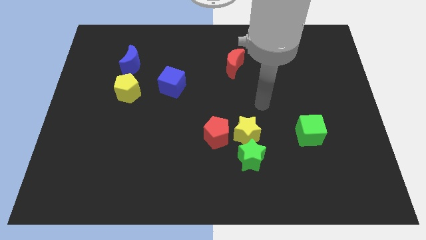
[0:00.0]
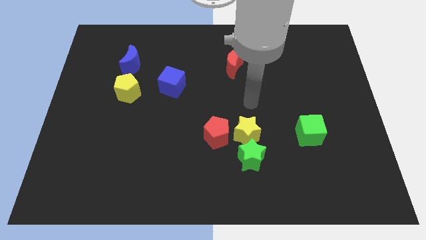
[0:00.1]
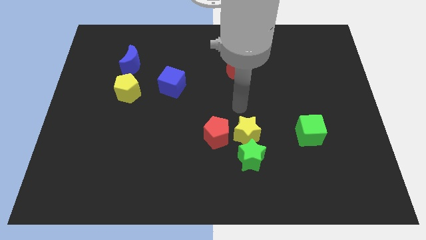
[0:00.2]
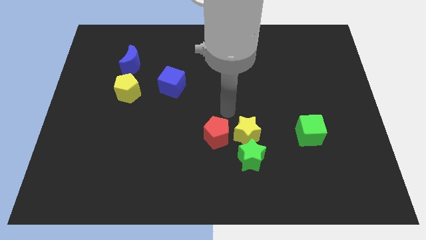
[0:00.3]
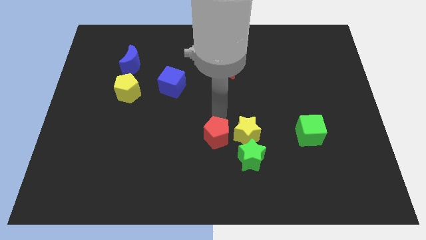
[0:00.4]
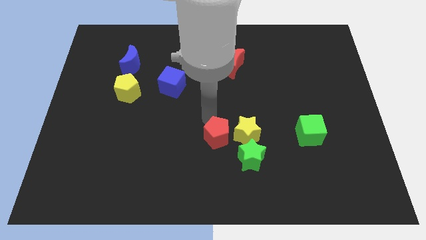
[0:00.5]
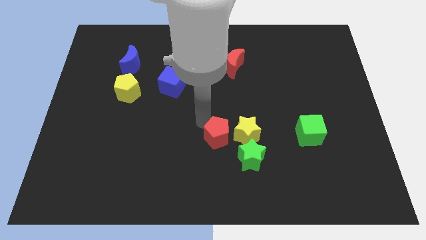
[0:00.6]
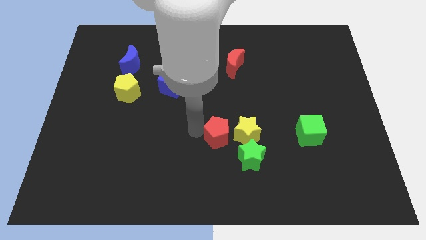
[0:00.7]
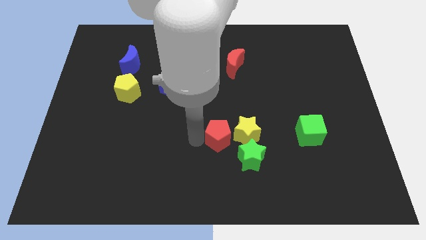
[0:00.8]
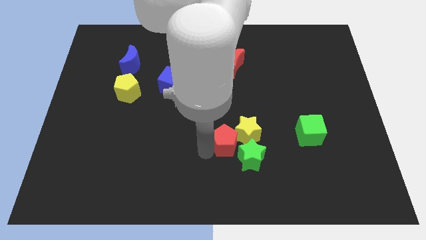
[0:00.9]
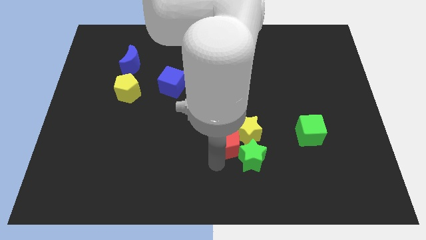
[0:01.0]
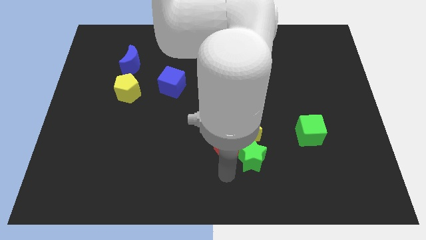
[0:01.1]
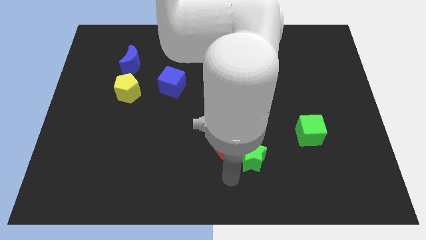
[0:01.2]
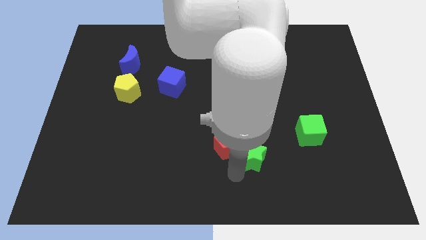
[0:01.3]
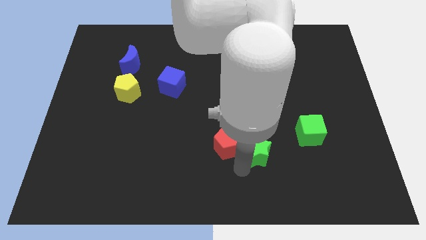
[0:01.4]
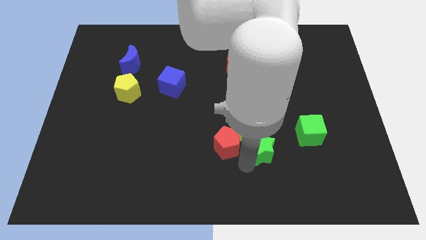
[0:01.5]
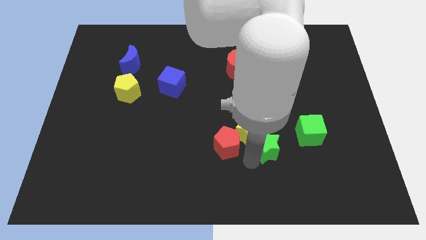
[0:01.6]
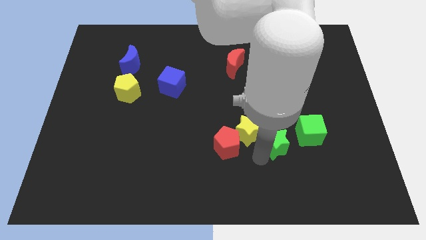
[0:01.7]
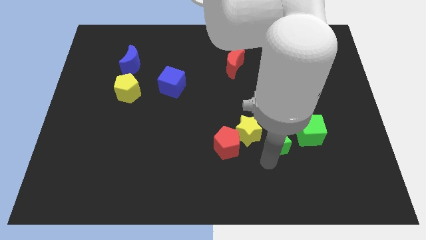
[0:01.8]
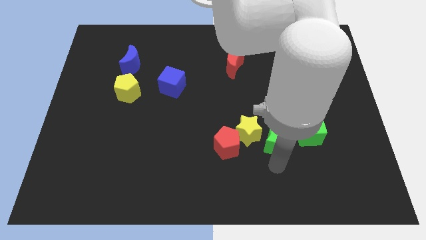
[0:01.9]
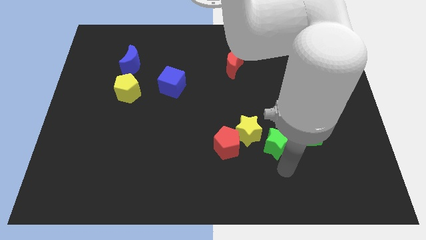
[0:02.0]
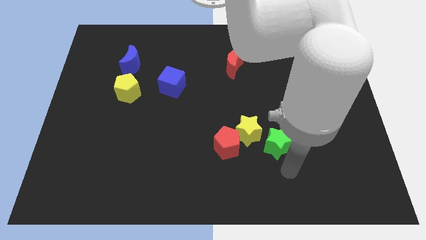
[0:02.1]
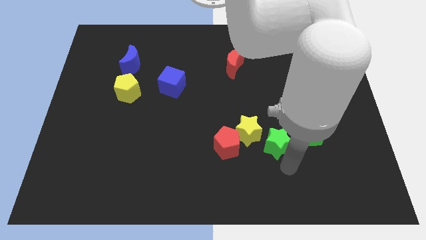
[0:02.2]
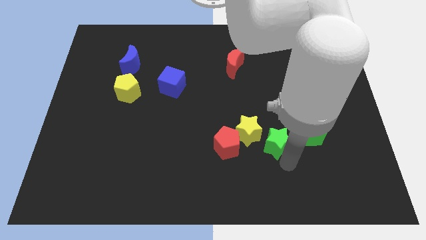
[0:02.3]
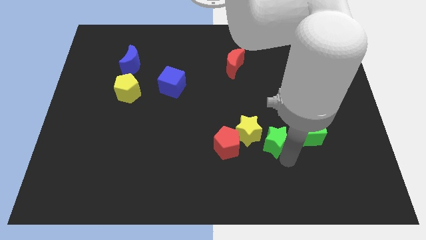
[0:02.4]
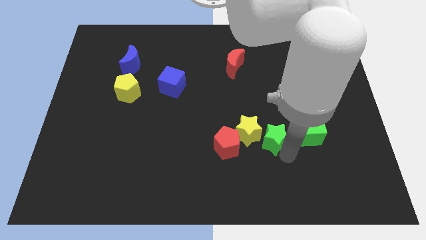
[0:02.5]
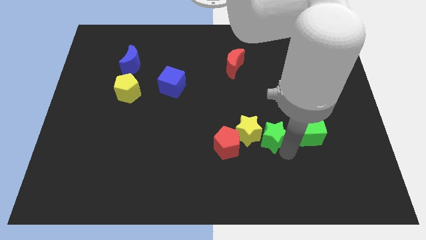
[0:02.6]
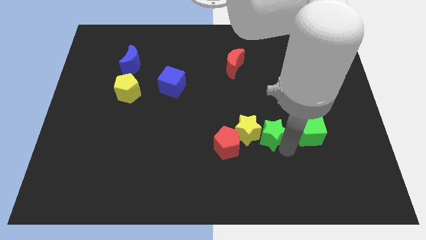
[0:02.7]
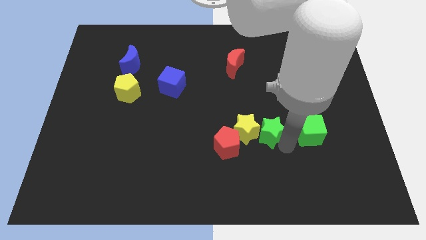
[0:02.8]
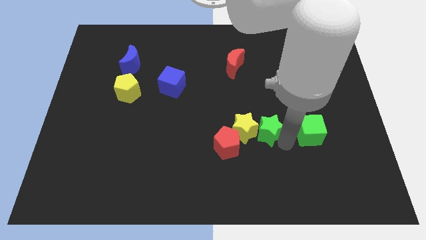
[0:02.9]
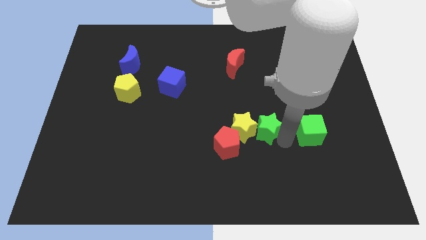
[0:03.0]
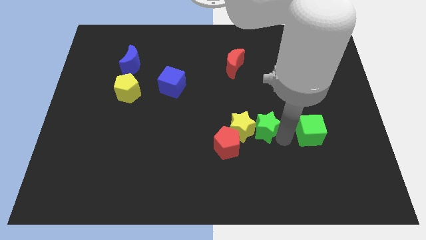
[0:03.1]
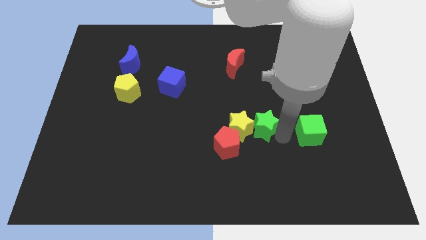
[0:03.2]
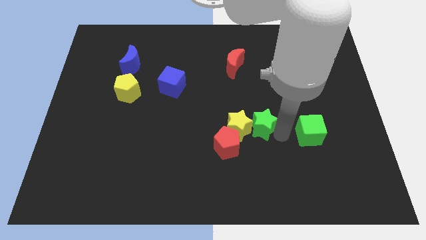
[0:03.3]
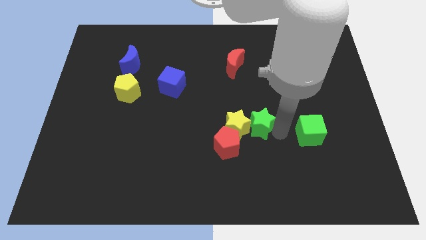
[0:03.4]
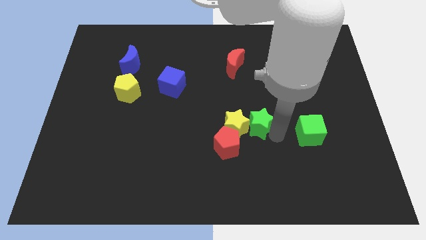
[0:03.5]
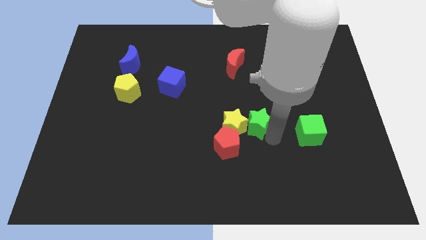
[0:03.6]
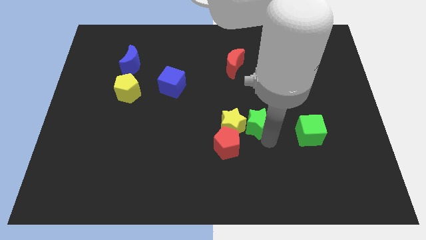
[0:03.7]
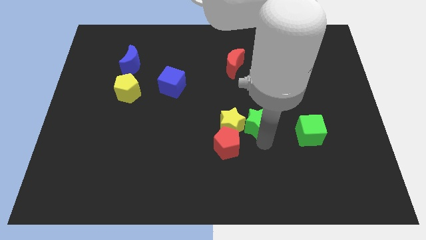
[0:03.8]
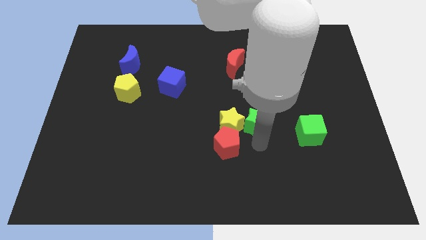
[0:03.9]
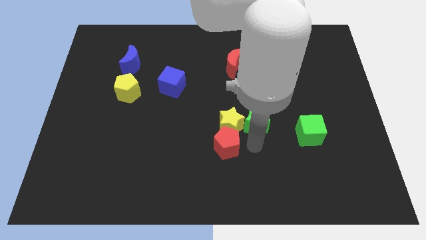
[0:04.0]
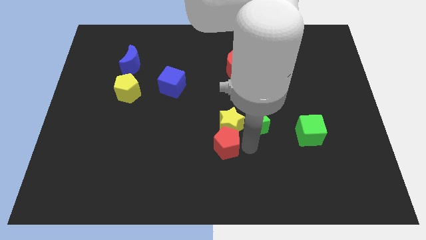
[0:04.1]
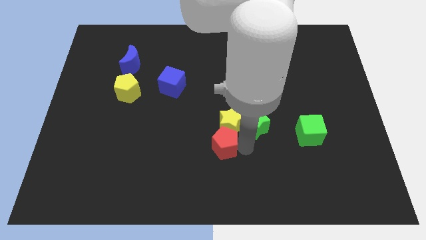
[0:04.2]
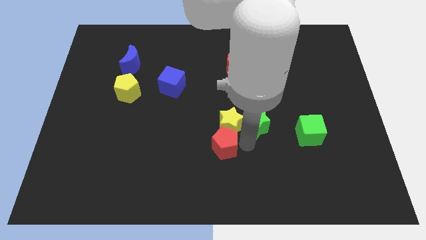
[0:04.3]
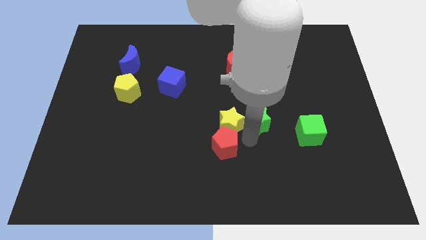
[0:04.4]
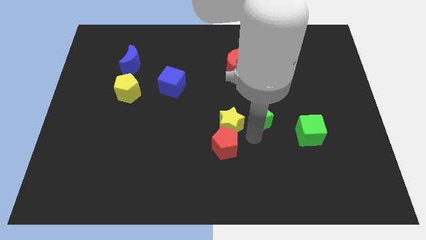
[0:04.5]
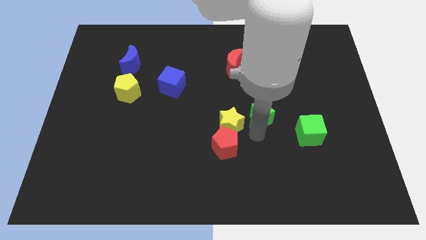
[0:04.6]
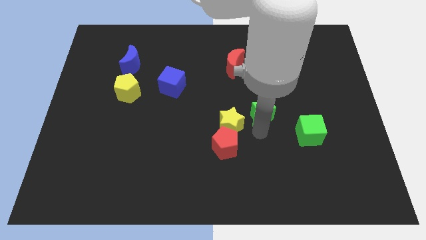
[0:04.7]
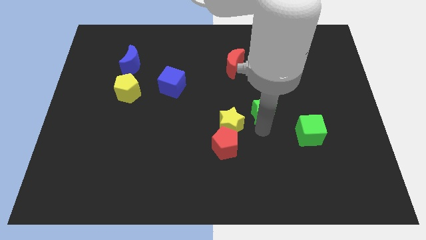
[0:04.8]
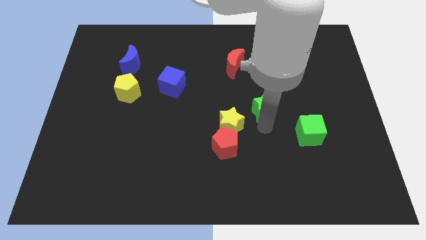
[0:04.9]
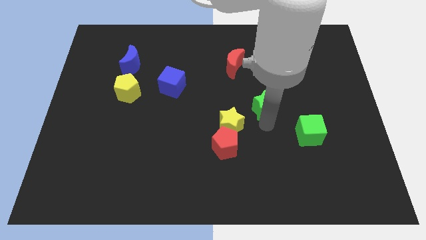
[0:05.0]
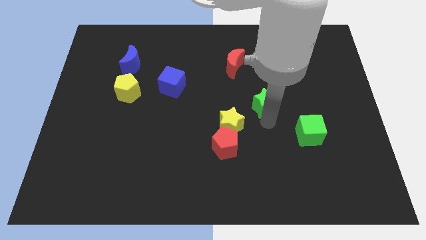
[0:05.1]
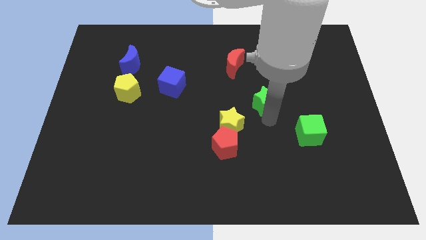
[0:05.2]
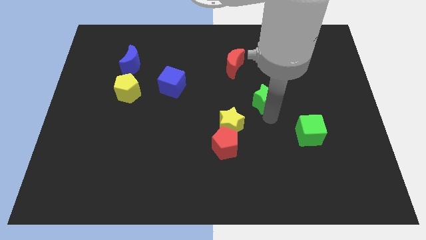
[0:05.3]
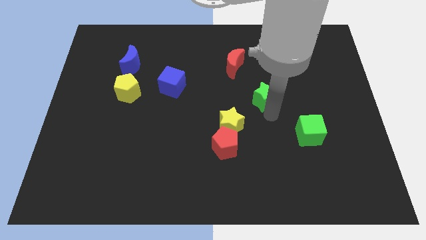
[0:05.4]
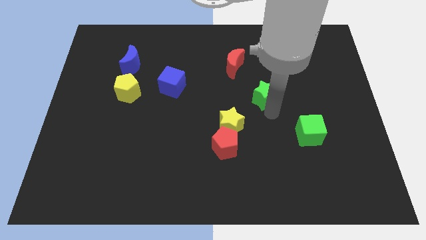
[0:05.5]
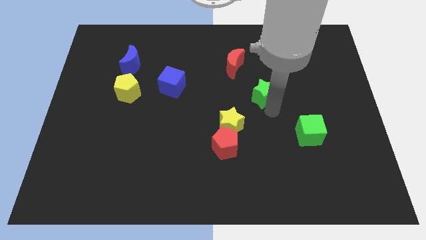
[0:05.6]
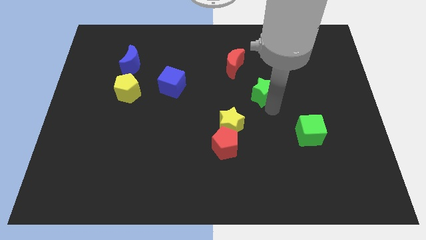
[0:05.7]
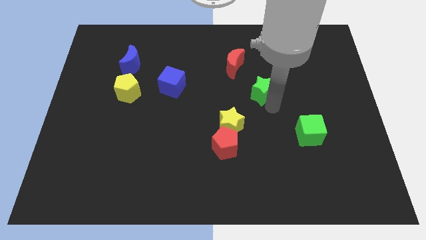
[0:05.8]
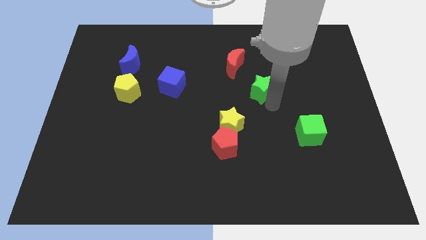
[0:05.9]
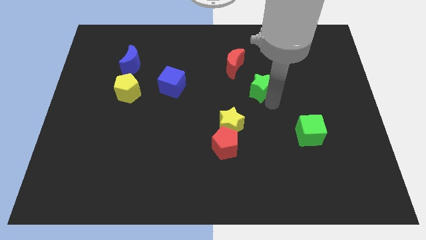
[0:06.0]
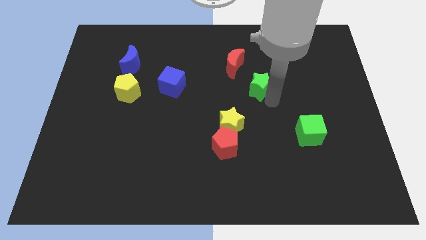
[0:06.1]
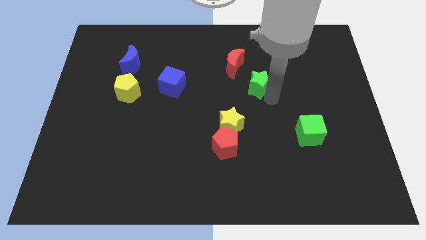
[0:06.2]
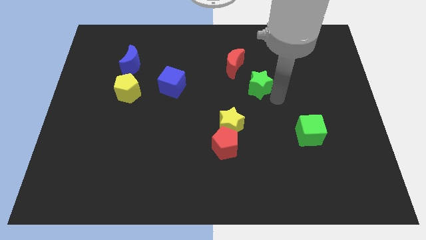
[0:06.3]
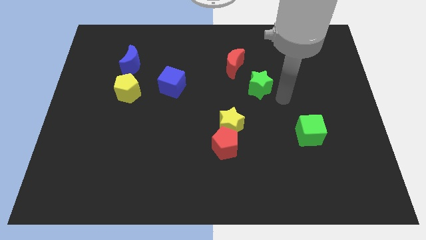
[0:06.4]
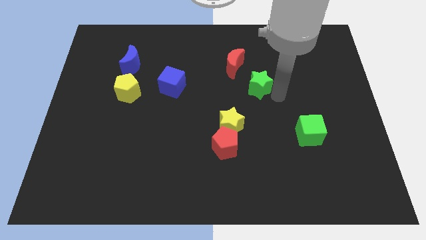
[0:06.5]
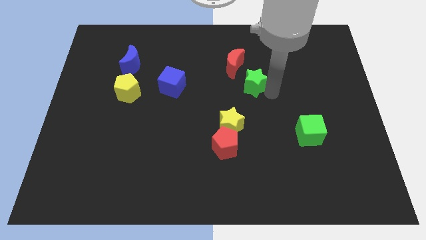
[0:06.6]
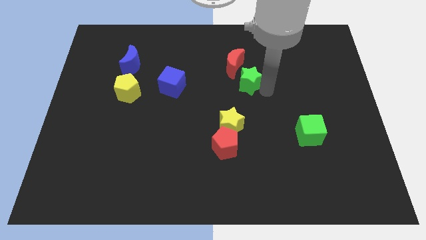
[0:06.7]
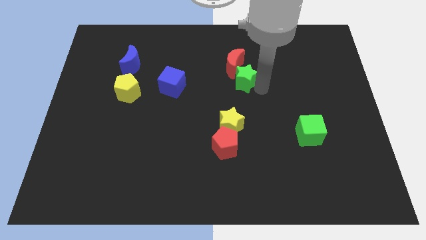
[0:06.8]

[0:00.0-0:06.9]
push the green star to the red moon

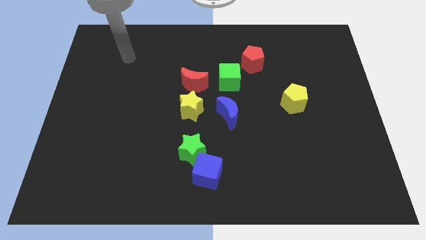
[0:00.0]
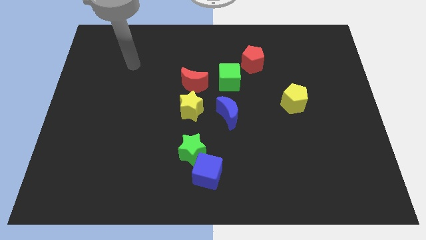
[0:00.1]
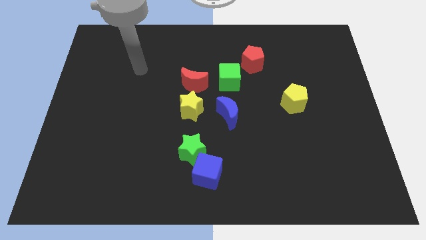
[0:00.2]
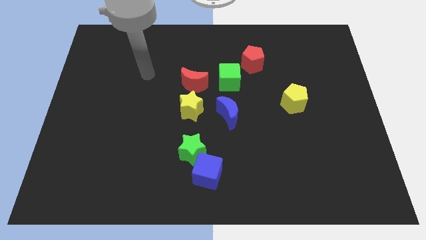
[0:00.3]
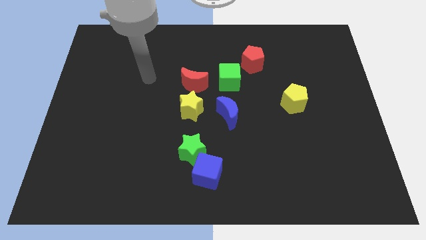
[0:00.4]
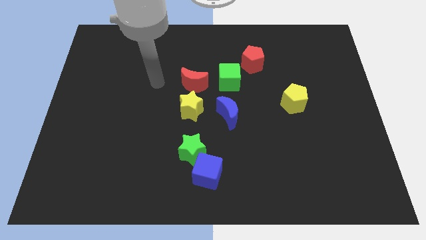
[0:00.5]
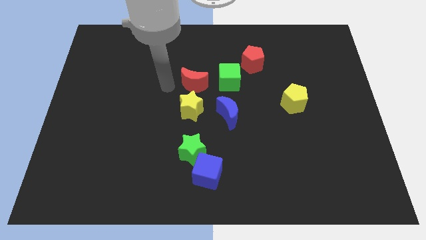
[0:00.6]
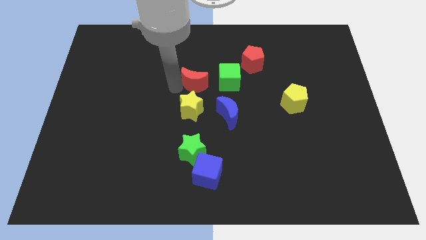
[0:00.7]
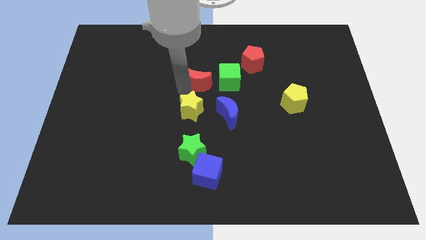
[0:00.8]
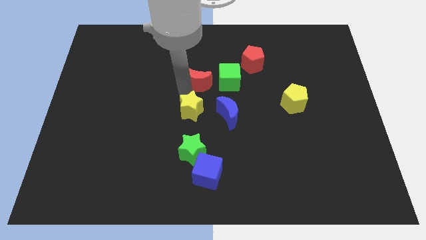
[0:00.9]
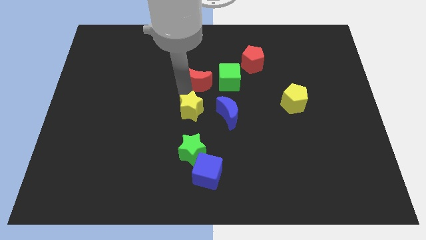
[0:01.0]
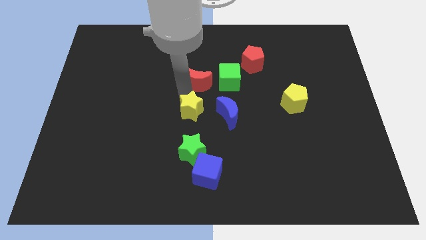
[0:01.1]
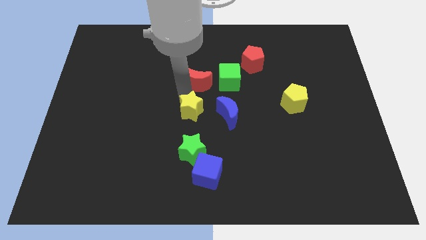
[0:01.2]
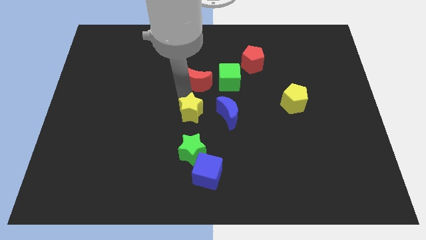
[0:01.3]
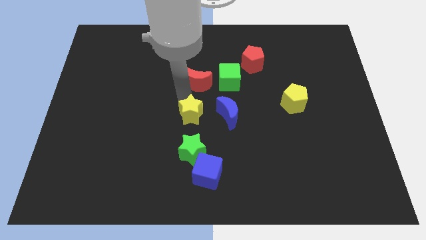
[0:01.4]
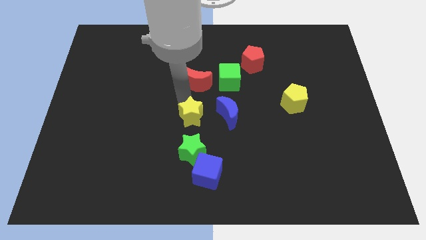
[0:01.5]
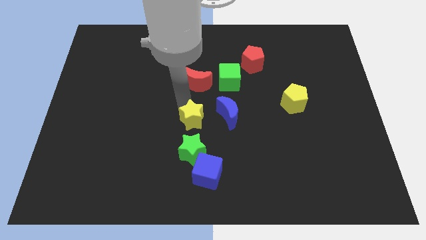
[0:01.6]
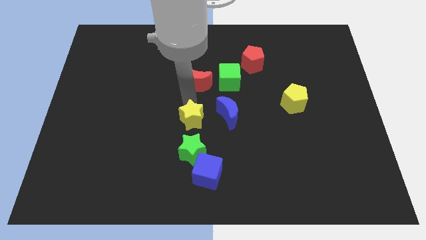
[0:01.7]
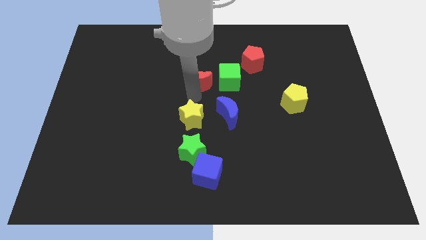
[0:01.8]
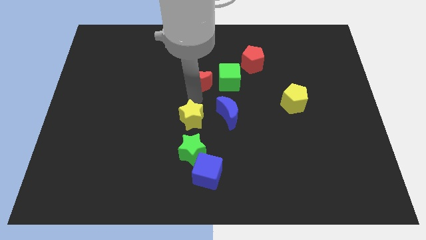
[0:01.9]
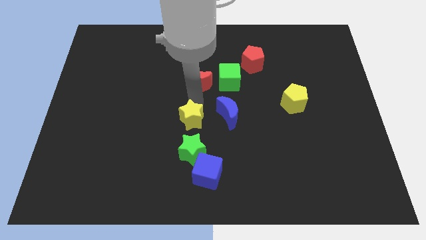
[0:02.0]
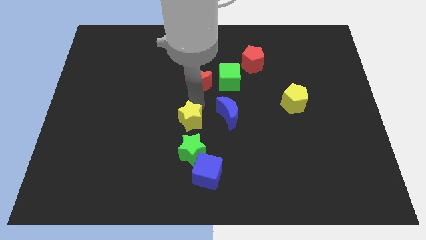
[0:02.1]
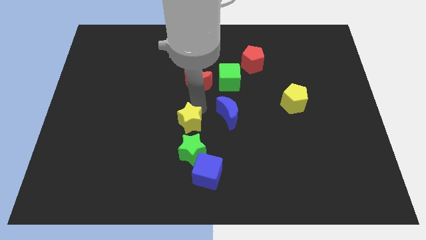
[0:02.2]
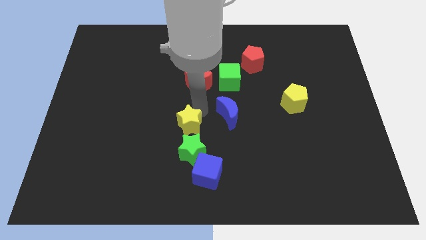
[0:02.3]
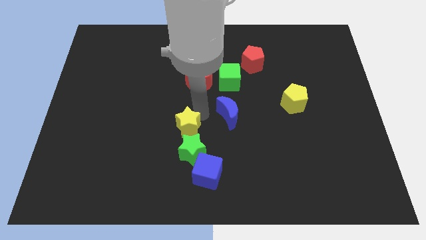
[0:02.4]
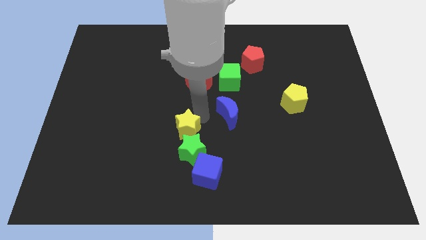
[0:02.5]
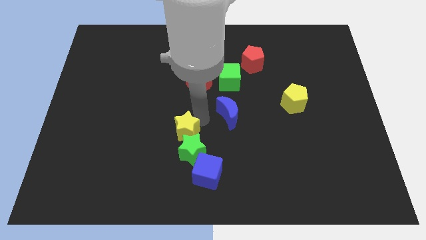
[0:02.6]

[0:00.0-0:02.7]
slide the yellow star towards the green star
